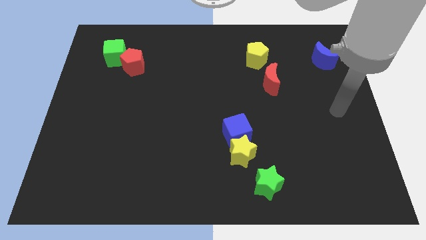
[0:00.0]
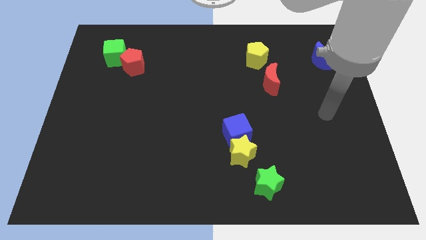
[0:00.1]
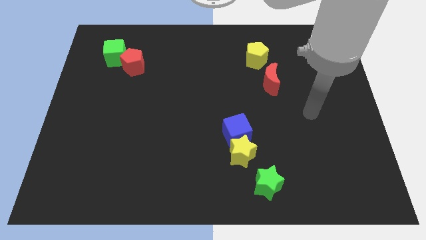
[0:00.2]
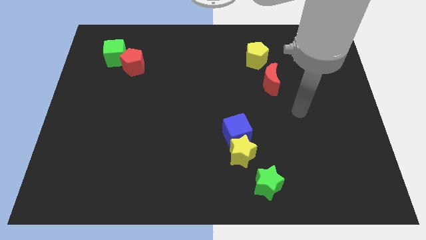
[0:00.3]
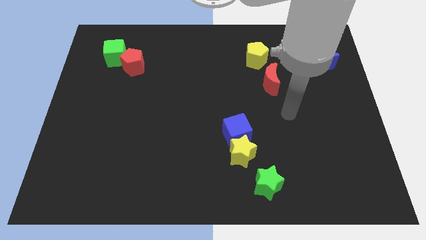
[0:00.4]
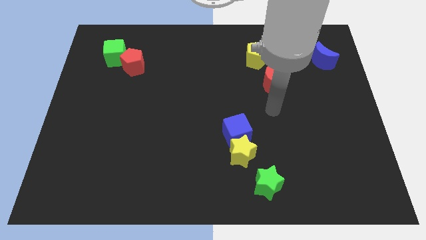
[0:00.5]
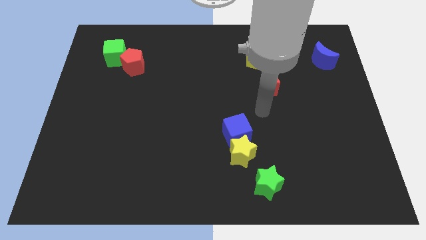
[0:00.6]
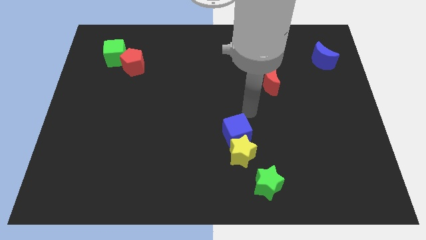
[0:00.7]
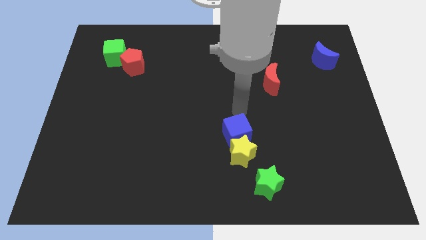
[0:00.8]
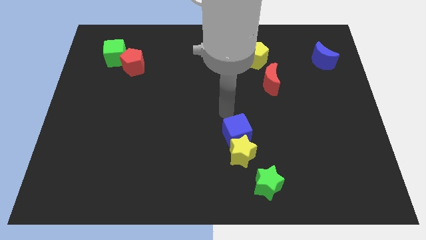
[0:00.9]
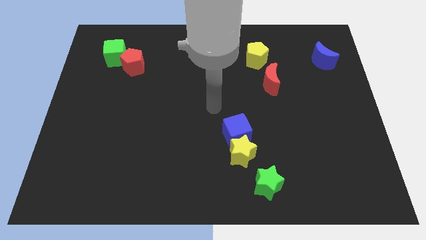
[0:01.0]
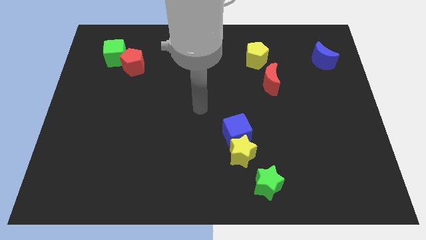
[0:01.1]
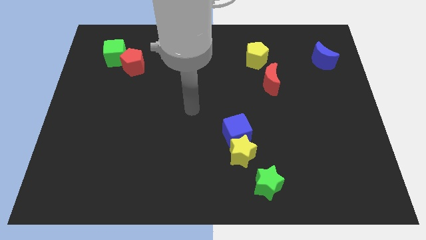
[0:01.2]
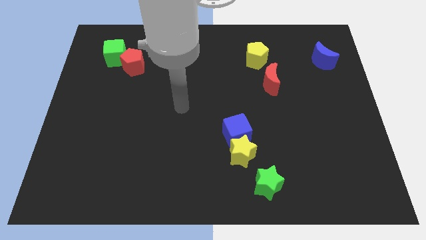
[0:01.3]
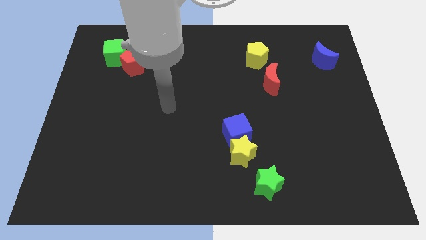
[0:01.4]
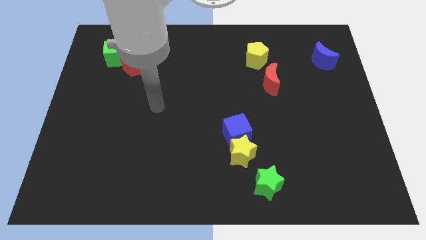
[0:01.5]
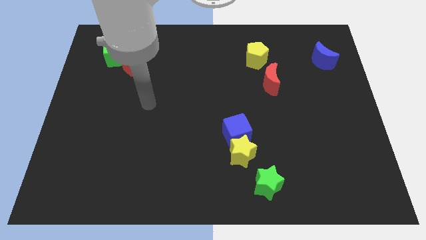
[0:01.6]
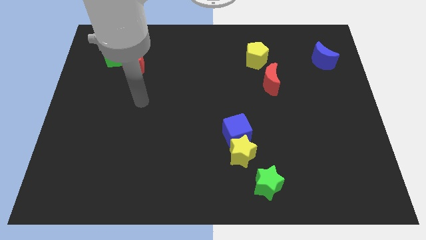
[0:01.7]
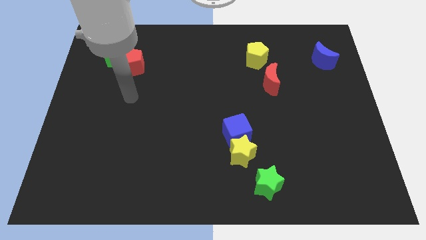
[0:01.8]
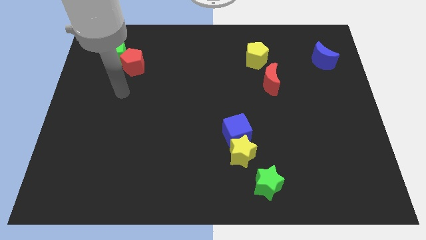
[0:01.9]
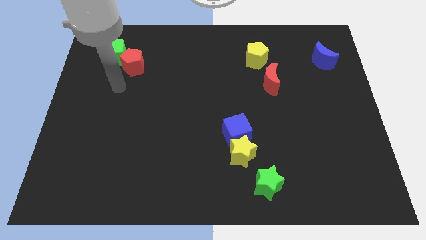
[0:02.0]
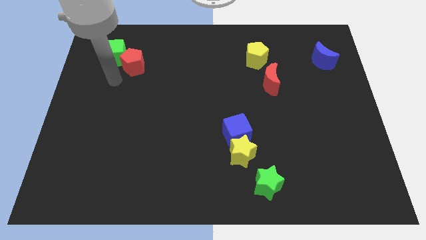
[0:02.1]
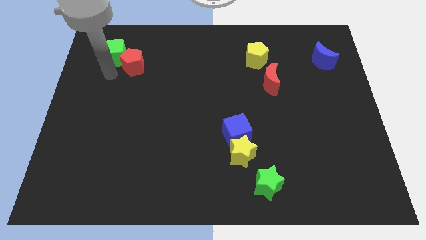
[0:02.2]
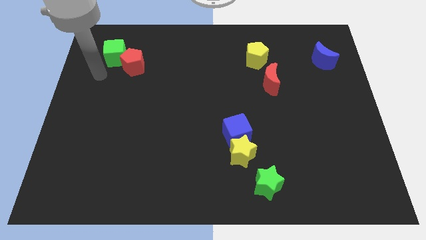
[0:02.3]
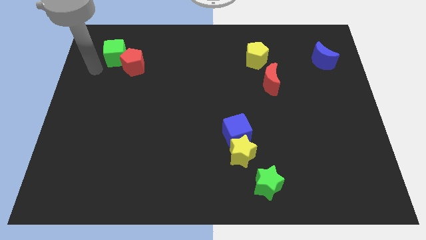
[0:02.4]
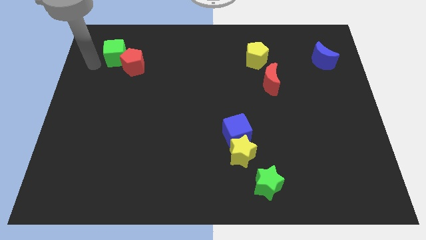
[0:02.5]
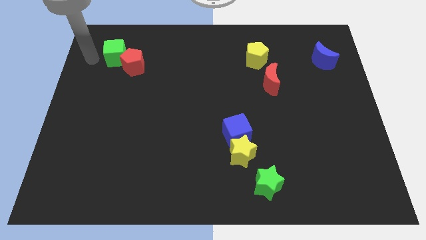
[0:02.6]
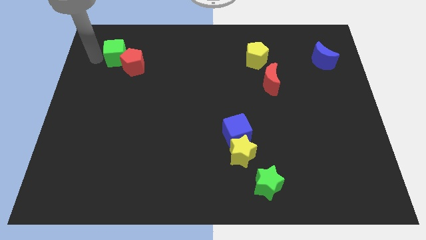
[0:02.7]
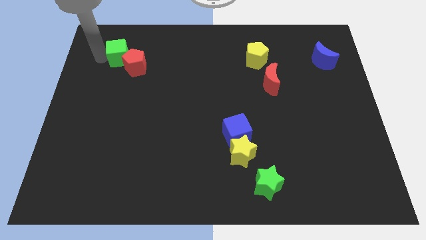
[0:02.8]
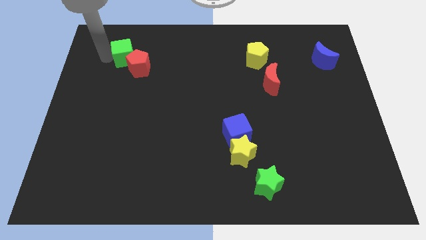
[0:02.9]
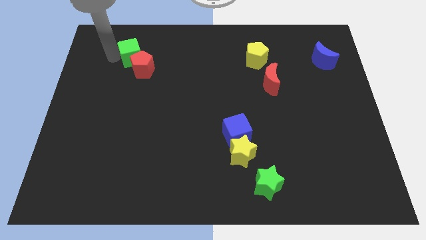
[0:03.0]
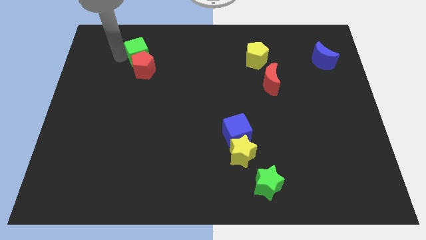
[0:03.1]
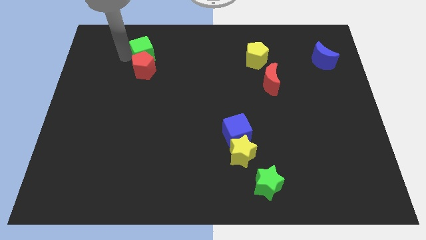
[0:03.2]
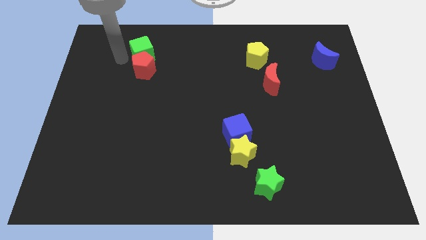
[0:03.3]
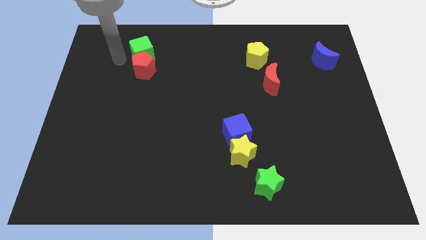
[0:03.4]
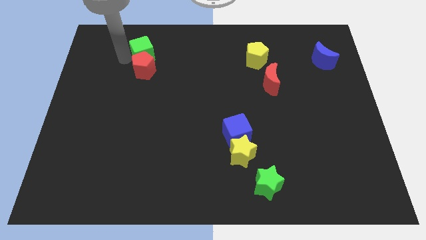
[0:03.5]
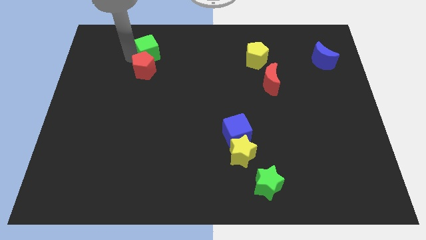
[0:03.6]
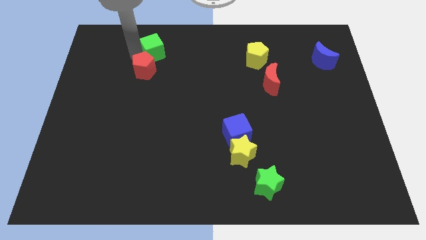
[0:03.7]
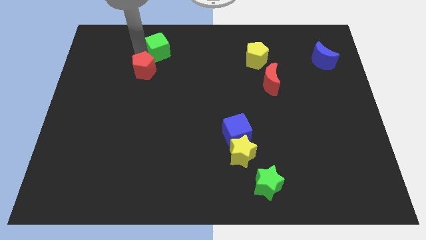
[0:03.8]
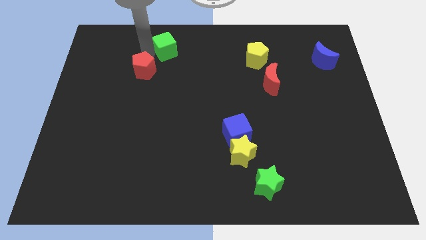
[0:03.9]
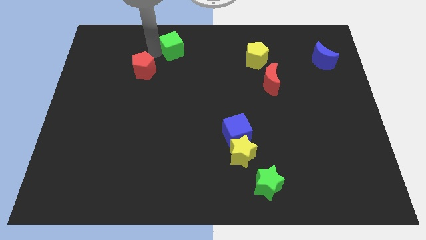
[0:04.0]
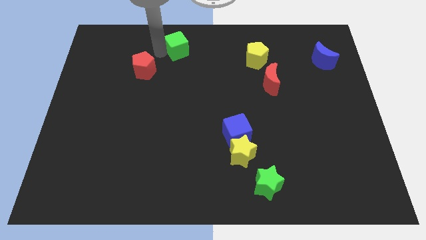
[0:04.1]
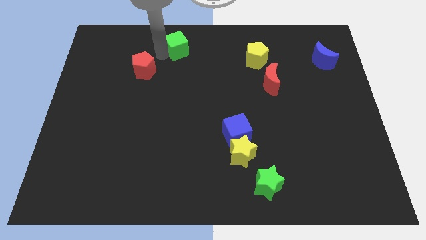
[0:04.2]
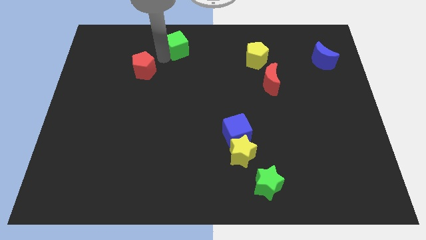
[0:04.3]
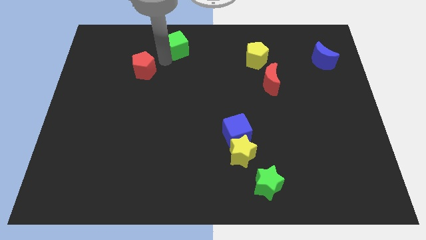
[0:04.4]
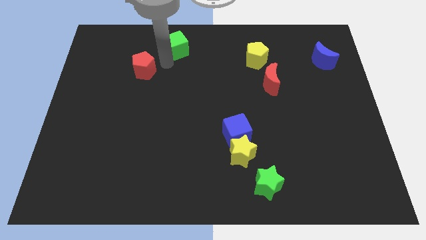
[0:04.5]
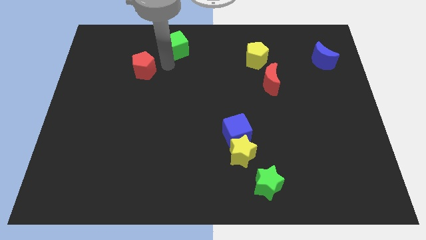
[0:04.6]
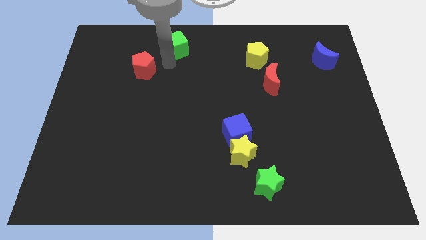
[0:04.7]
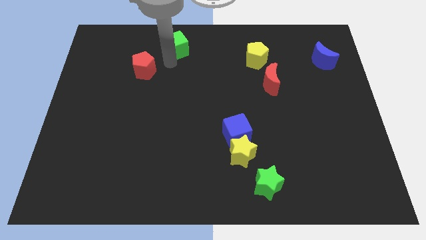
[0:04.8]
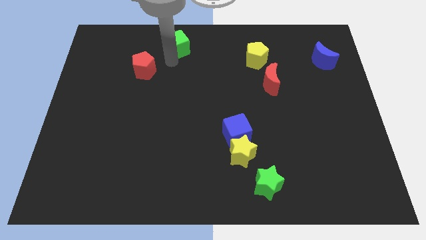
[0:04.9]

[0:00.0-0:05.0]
put the green cube to the towards your base

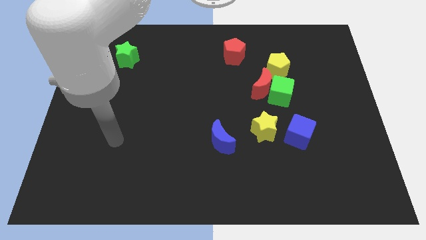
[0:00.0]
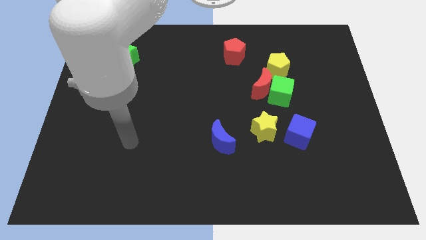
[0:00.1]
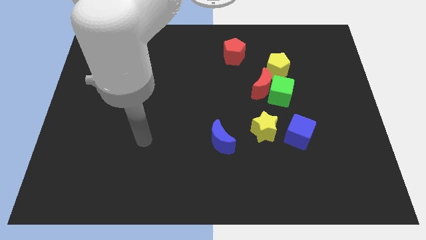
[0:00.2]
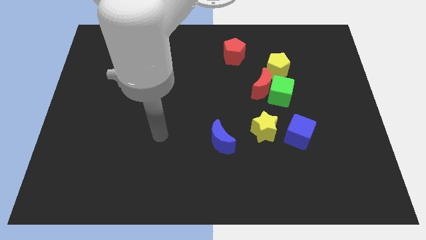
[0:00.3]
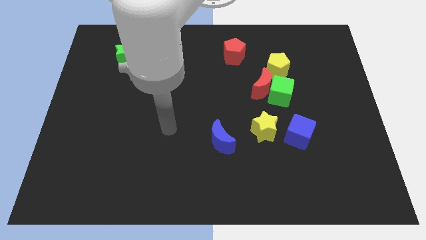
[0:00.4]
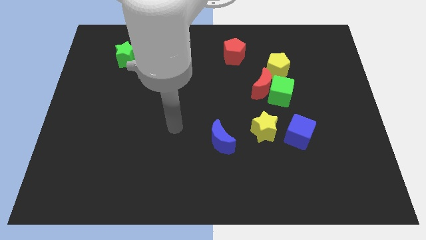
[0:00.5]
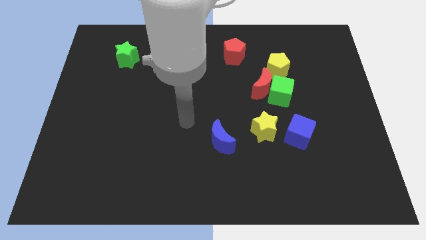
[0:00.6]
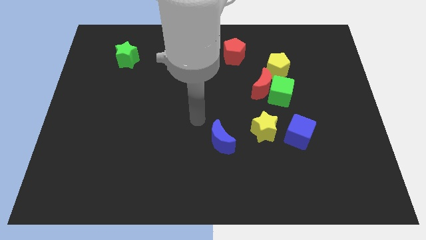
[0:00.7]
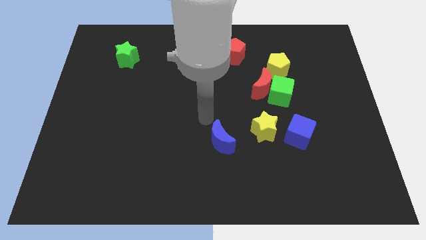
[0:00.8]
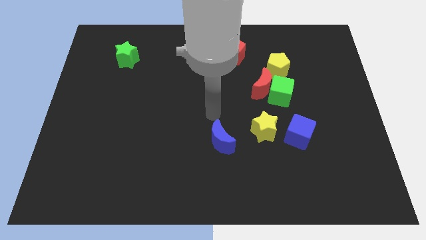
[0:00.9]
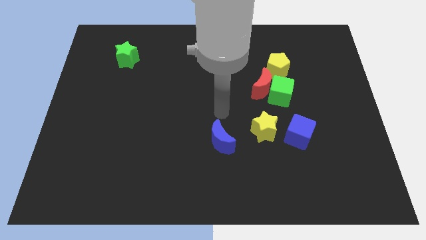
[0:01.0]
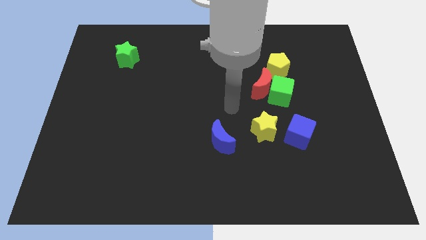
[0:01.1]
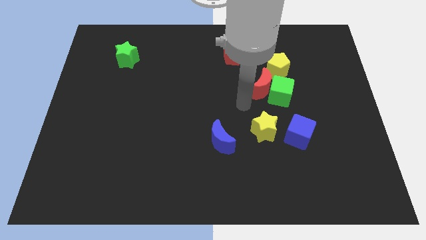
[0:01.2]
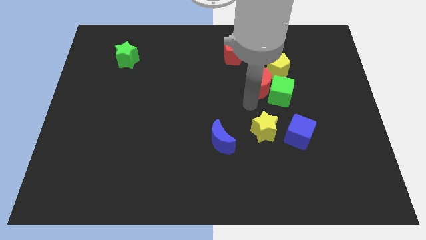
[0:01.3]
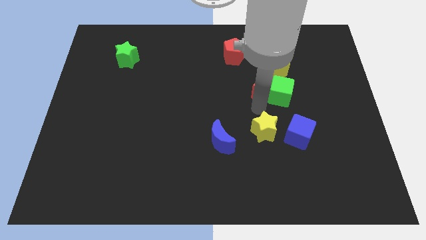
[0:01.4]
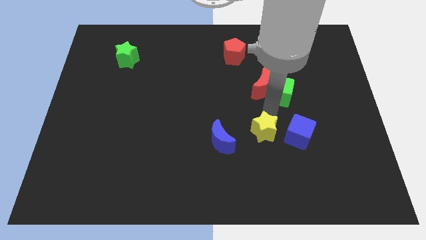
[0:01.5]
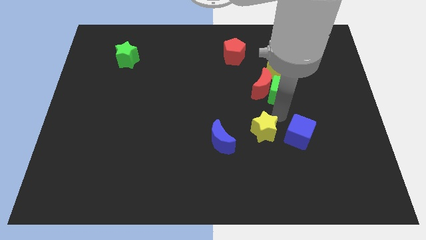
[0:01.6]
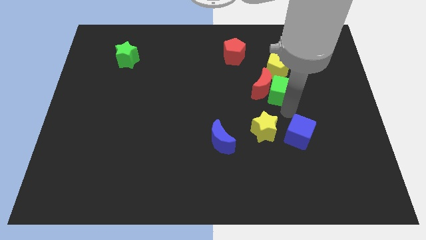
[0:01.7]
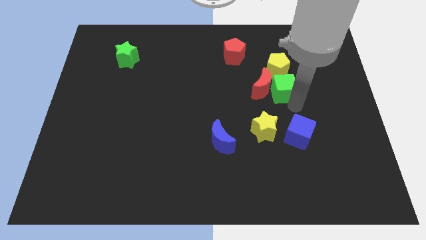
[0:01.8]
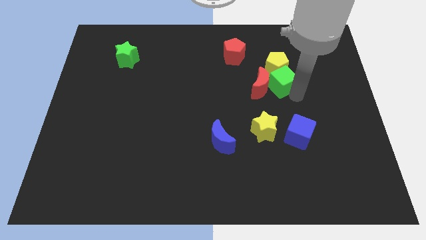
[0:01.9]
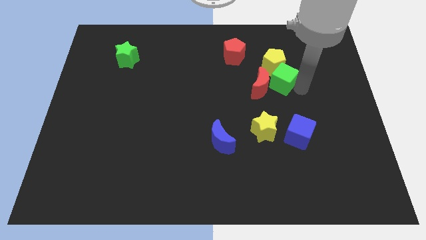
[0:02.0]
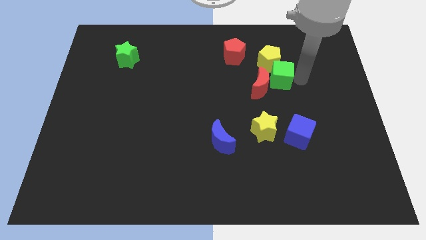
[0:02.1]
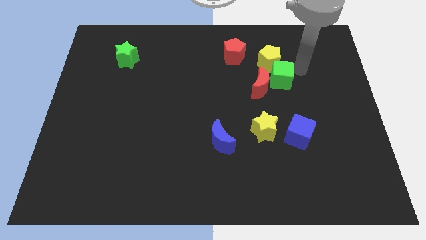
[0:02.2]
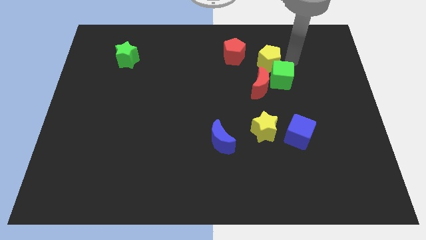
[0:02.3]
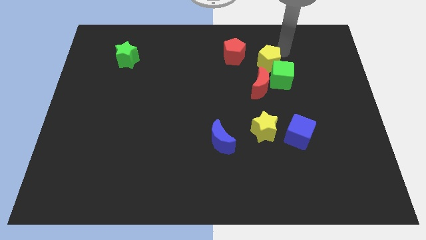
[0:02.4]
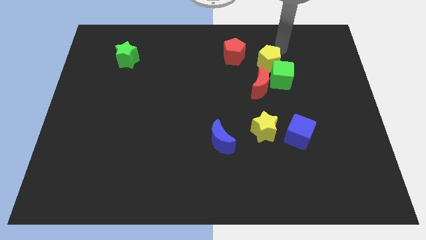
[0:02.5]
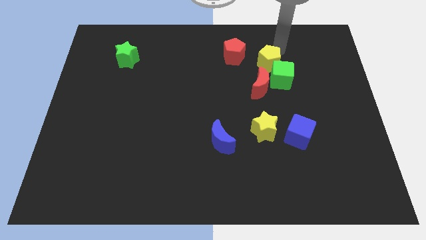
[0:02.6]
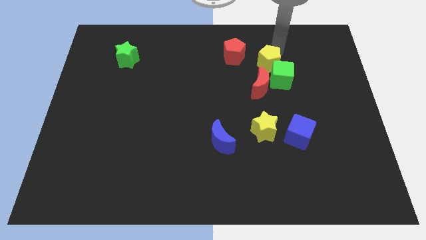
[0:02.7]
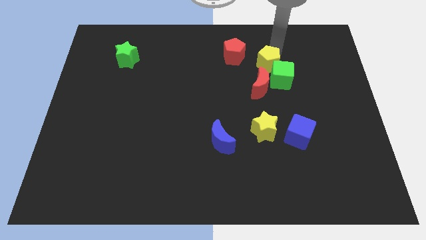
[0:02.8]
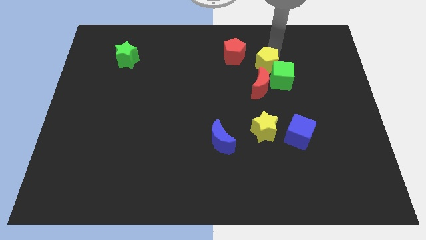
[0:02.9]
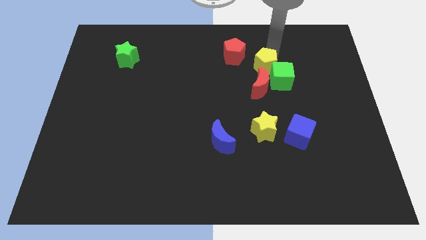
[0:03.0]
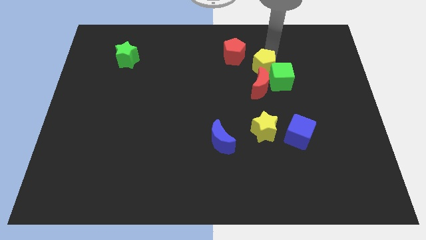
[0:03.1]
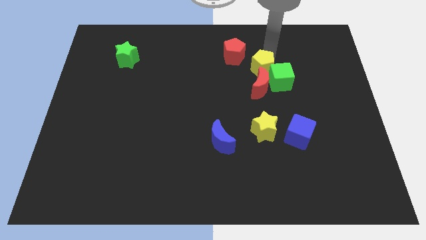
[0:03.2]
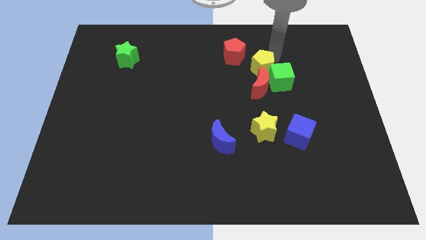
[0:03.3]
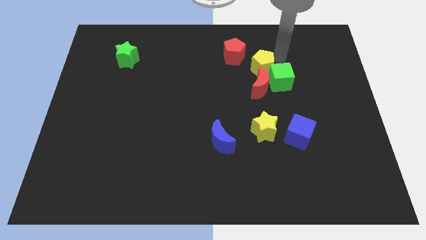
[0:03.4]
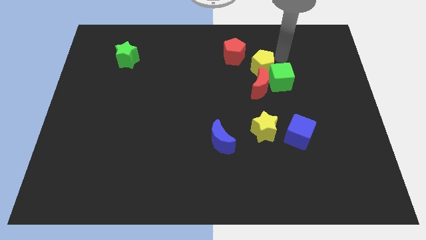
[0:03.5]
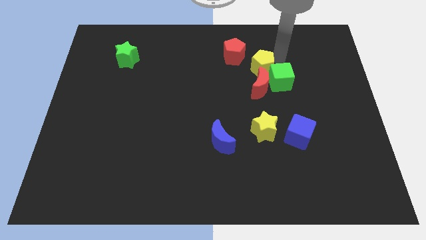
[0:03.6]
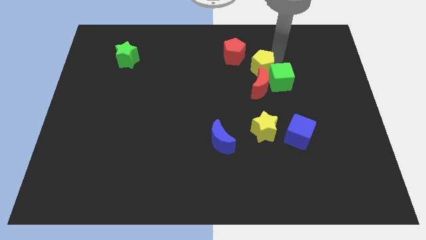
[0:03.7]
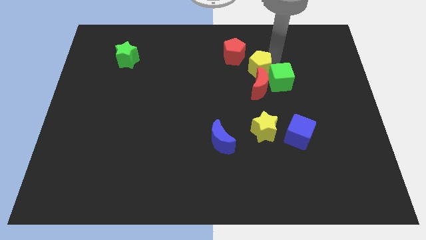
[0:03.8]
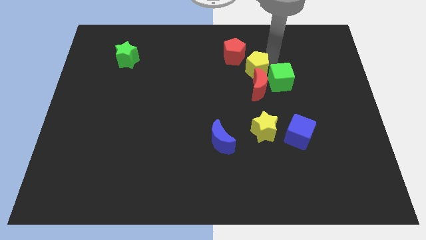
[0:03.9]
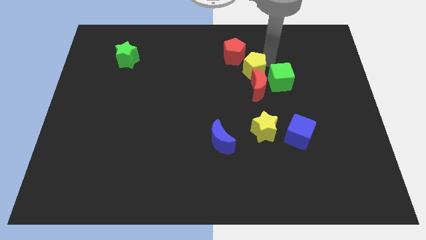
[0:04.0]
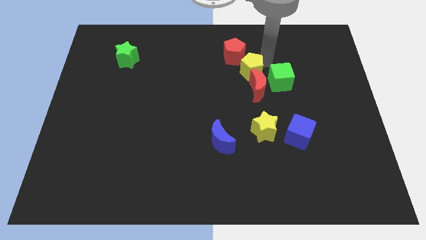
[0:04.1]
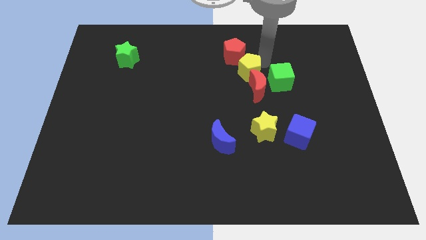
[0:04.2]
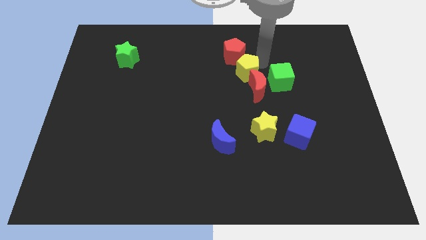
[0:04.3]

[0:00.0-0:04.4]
move the yellow pentagon to the center
